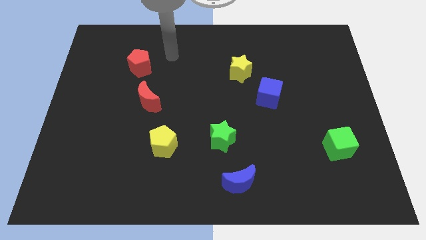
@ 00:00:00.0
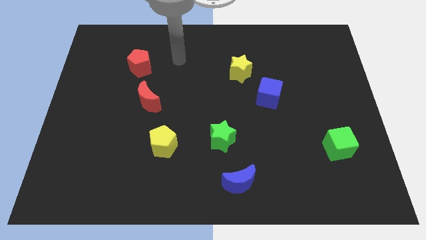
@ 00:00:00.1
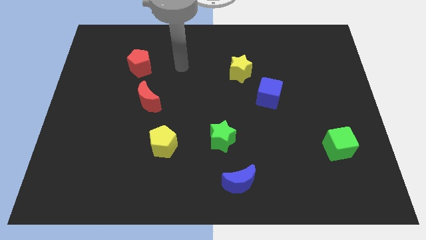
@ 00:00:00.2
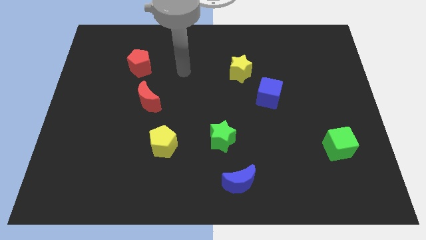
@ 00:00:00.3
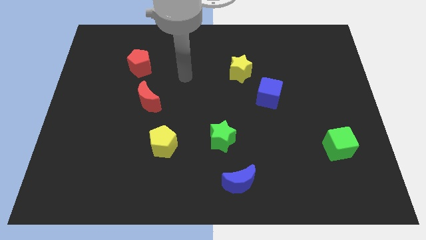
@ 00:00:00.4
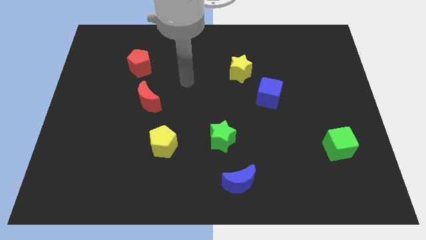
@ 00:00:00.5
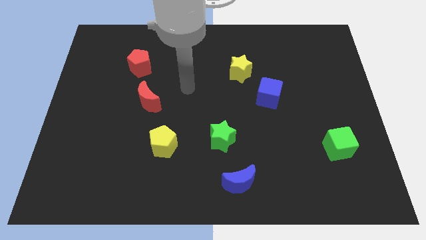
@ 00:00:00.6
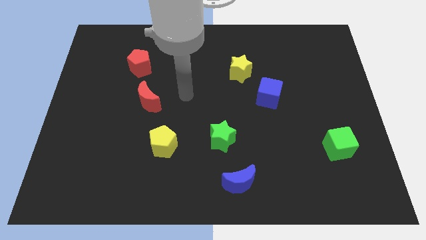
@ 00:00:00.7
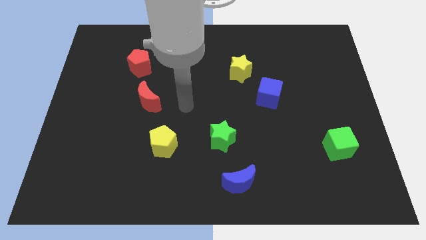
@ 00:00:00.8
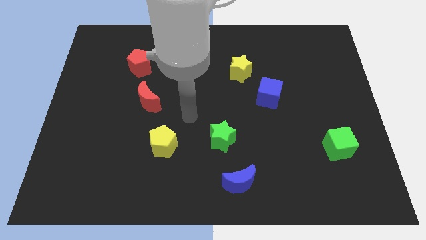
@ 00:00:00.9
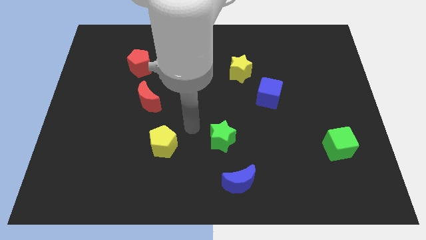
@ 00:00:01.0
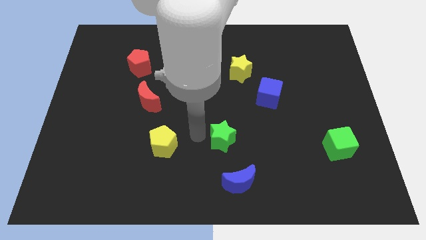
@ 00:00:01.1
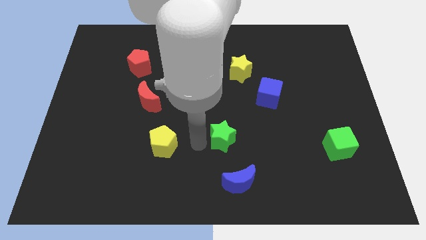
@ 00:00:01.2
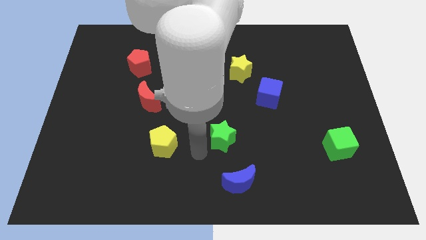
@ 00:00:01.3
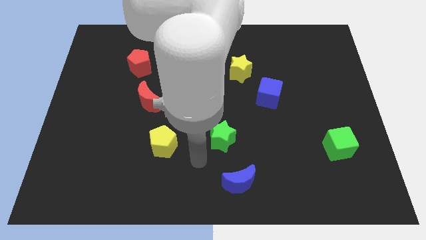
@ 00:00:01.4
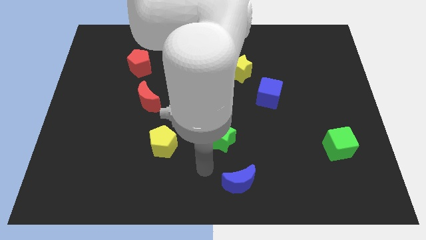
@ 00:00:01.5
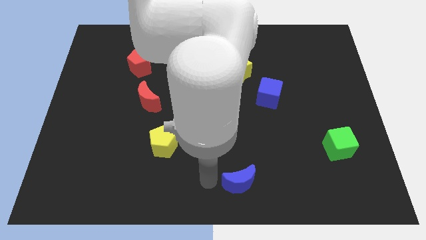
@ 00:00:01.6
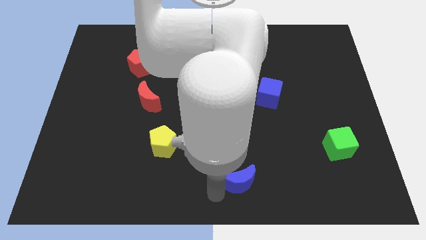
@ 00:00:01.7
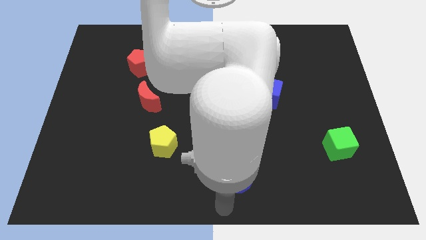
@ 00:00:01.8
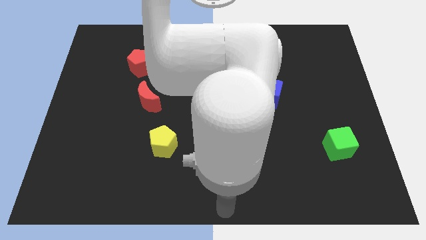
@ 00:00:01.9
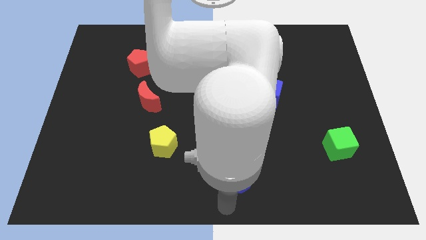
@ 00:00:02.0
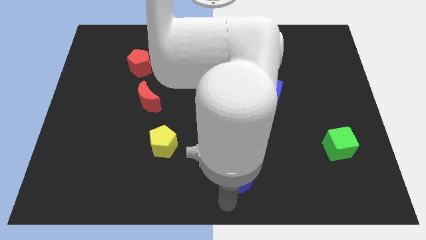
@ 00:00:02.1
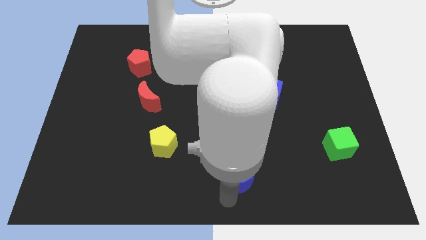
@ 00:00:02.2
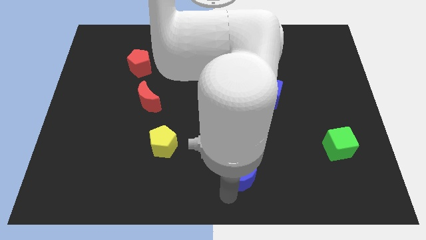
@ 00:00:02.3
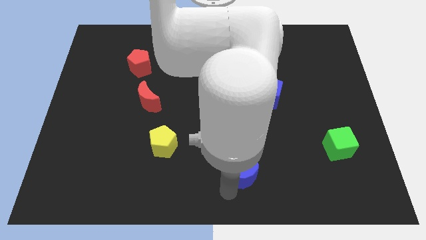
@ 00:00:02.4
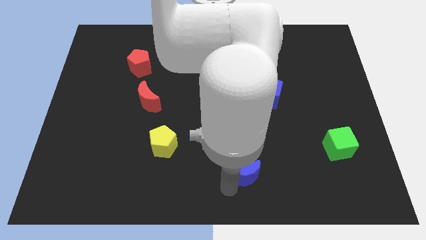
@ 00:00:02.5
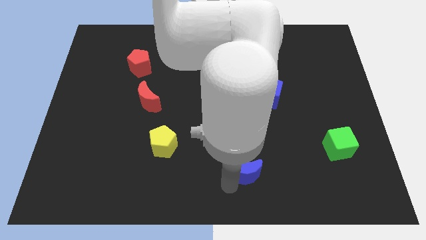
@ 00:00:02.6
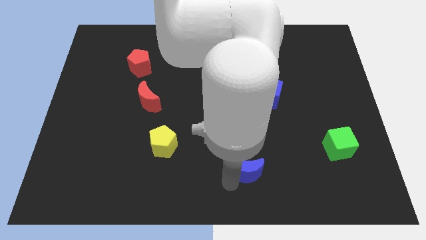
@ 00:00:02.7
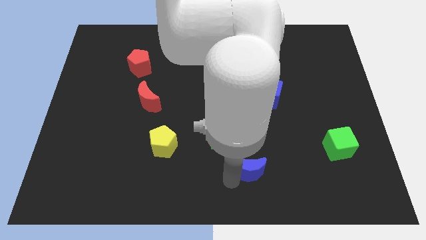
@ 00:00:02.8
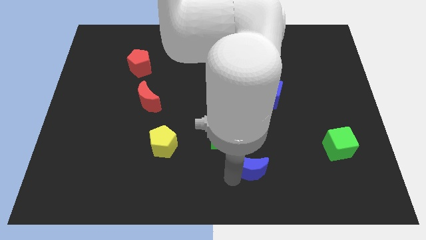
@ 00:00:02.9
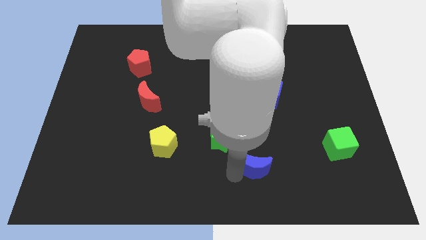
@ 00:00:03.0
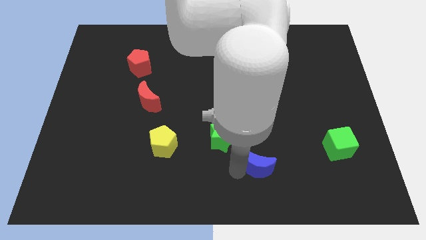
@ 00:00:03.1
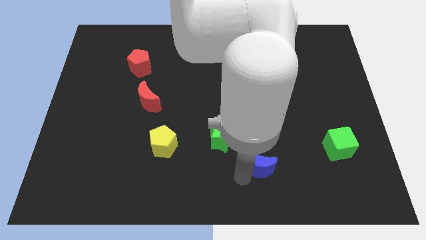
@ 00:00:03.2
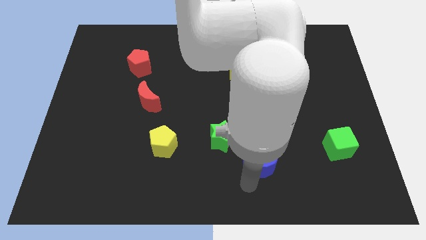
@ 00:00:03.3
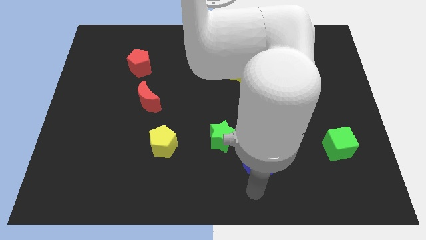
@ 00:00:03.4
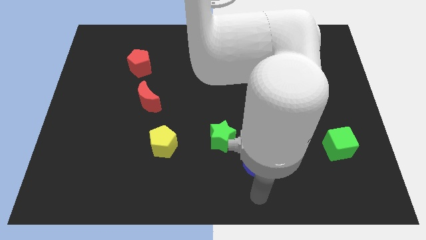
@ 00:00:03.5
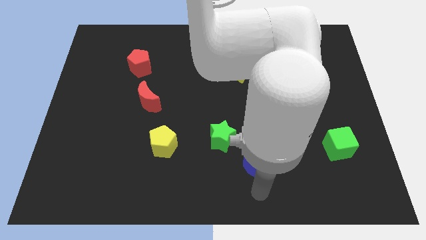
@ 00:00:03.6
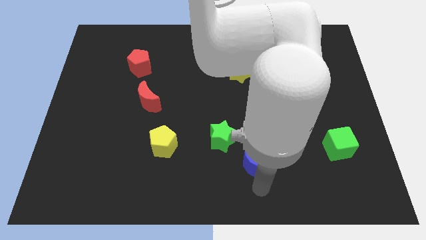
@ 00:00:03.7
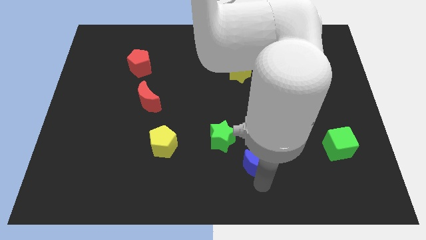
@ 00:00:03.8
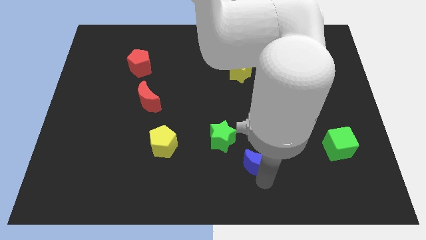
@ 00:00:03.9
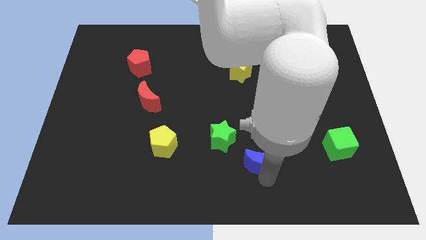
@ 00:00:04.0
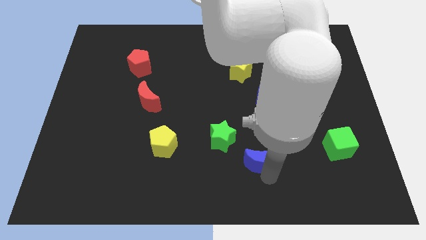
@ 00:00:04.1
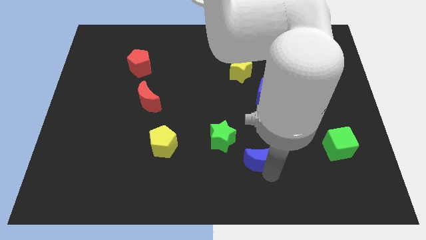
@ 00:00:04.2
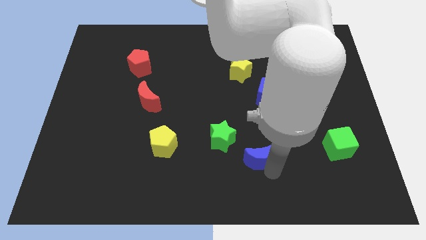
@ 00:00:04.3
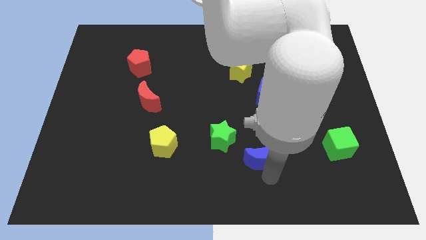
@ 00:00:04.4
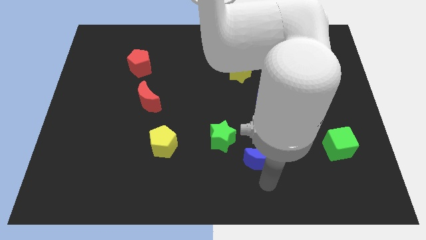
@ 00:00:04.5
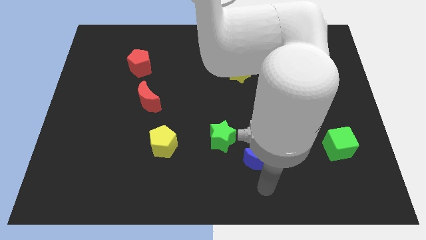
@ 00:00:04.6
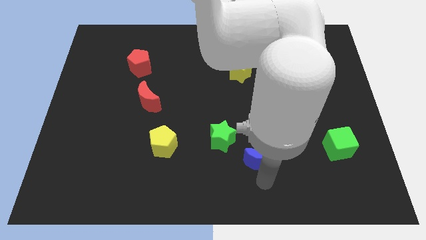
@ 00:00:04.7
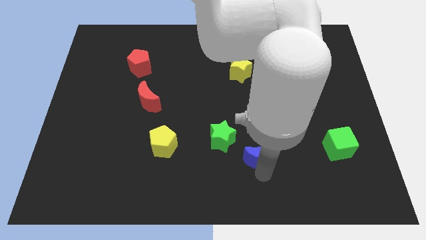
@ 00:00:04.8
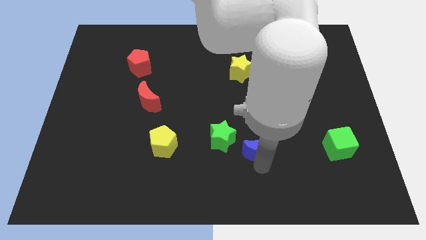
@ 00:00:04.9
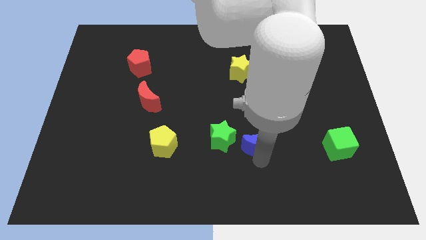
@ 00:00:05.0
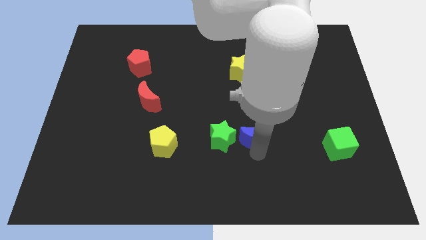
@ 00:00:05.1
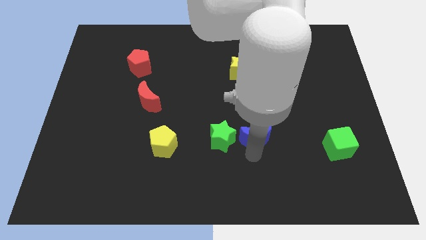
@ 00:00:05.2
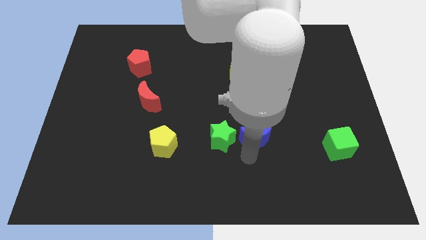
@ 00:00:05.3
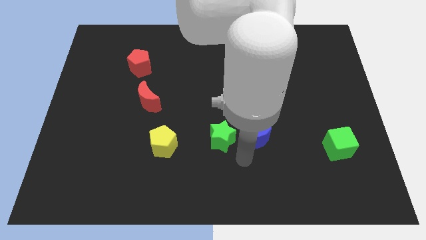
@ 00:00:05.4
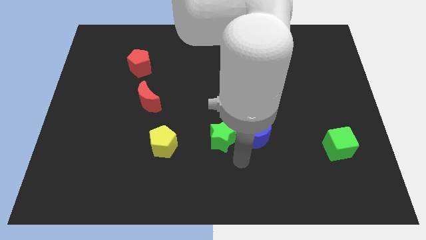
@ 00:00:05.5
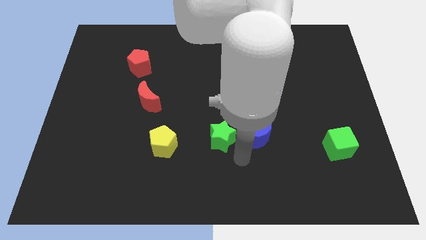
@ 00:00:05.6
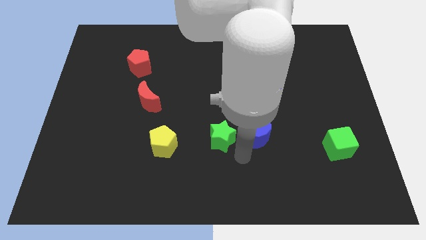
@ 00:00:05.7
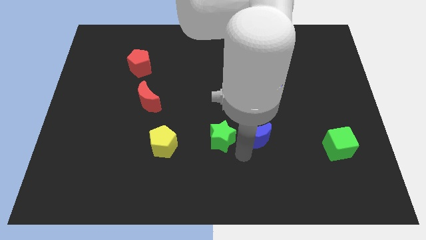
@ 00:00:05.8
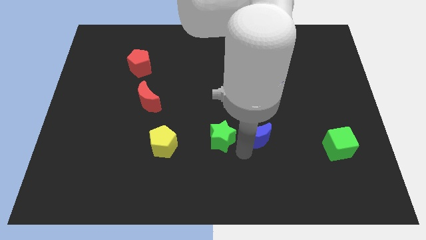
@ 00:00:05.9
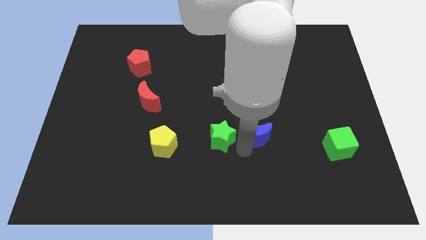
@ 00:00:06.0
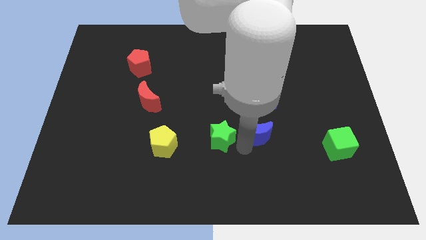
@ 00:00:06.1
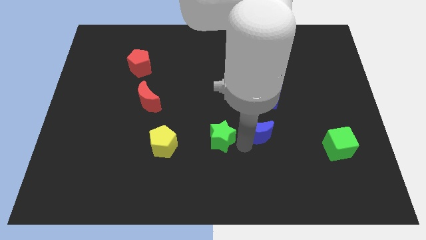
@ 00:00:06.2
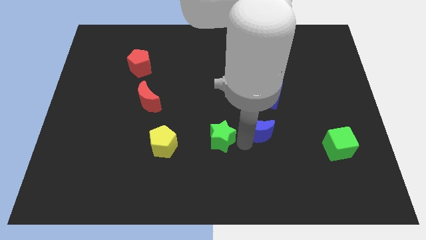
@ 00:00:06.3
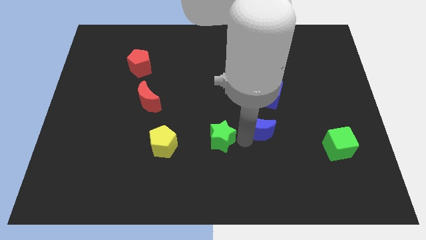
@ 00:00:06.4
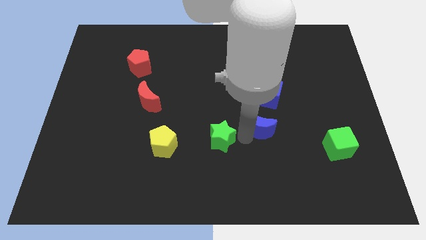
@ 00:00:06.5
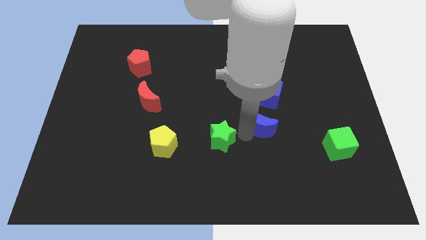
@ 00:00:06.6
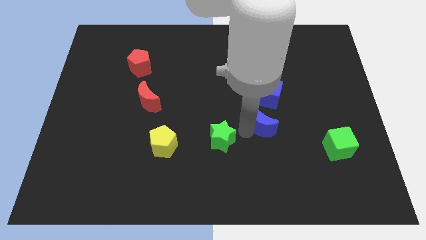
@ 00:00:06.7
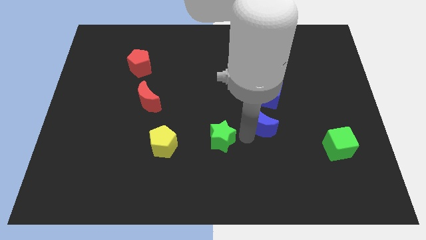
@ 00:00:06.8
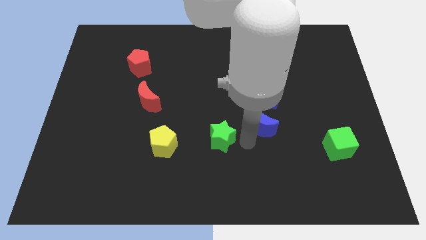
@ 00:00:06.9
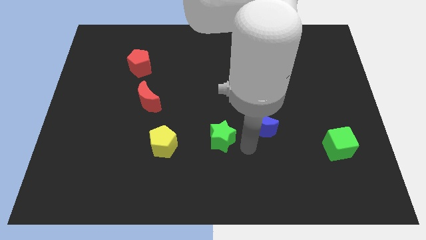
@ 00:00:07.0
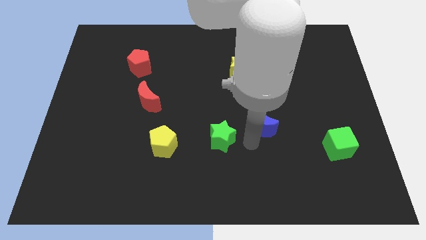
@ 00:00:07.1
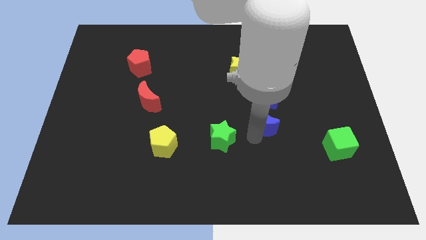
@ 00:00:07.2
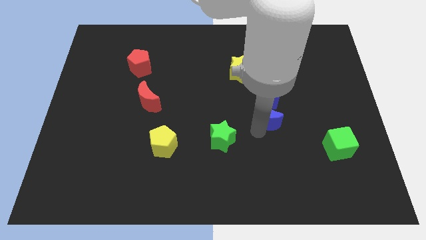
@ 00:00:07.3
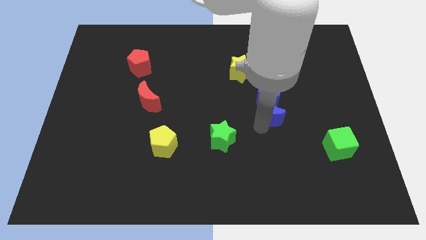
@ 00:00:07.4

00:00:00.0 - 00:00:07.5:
move the blue moon towards the blue cube
